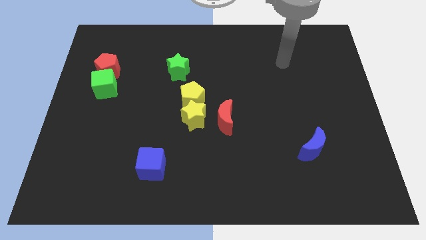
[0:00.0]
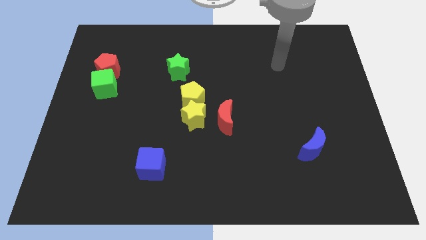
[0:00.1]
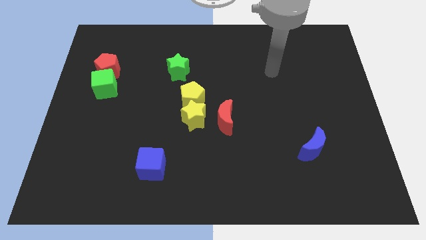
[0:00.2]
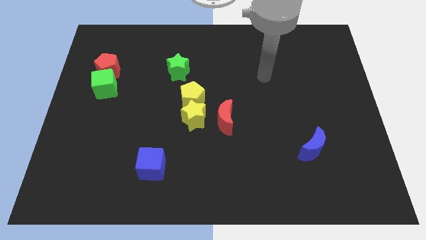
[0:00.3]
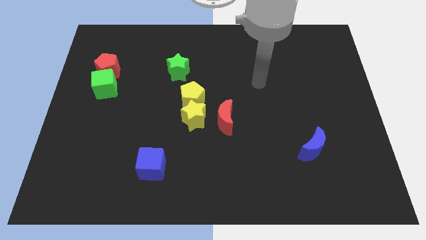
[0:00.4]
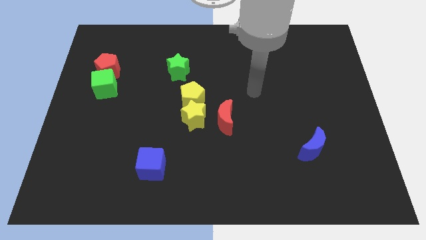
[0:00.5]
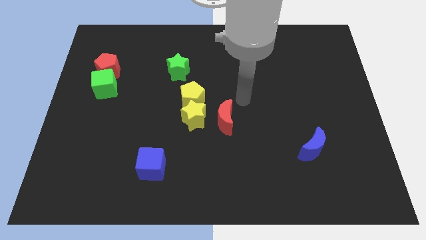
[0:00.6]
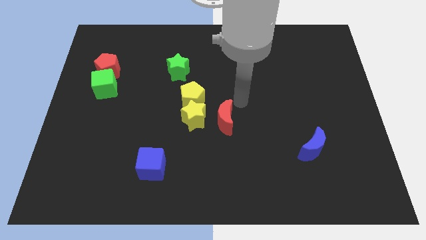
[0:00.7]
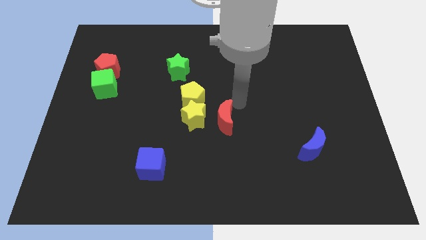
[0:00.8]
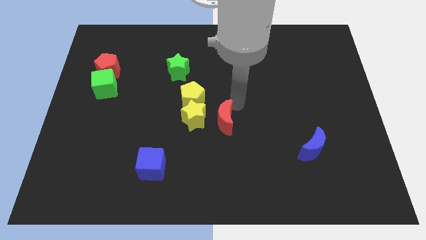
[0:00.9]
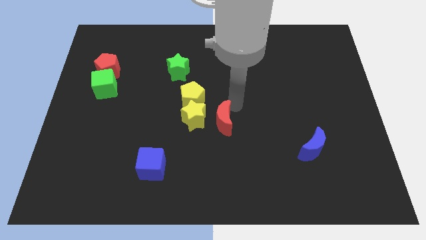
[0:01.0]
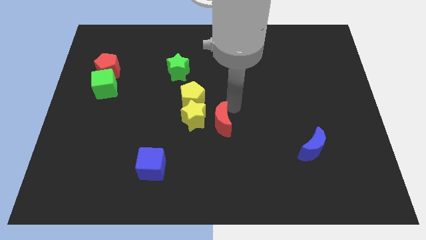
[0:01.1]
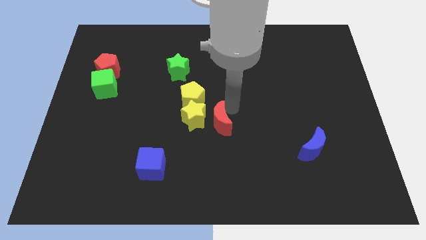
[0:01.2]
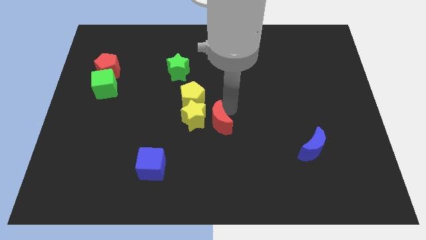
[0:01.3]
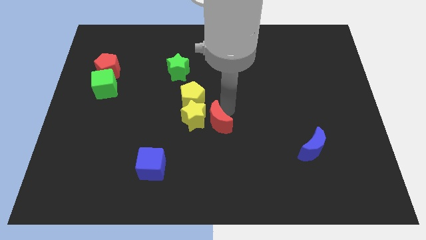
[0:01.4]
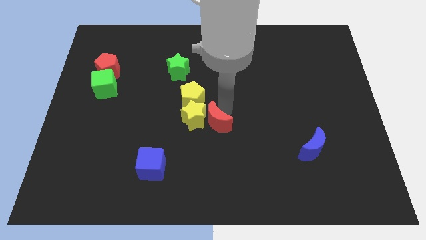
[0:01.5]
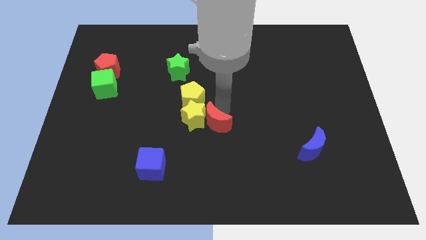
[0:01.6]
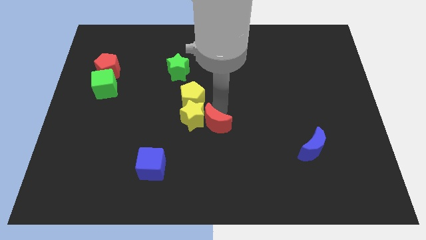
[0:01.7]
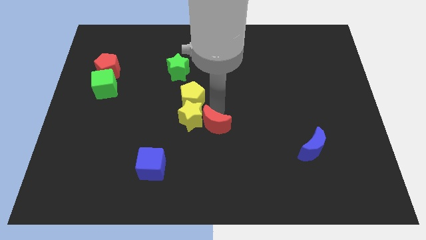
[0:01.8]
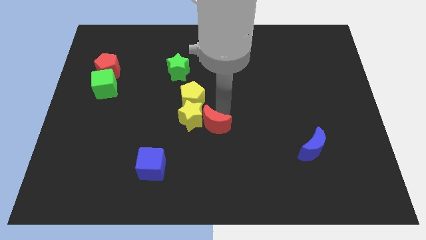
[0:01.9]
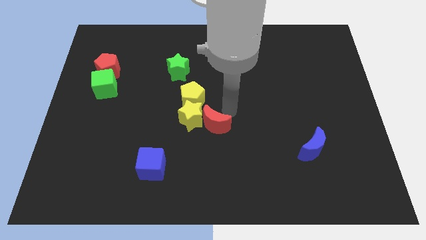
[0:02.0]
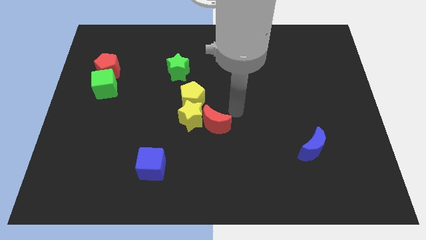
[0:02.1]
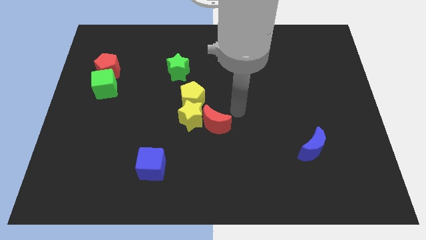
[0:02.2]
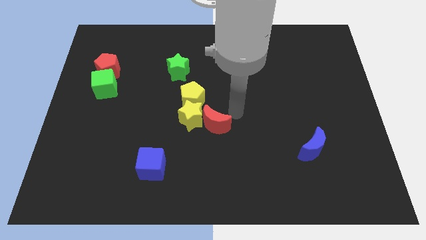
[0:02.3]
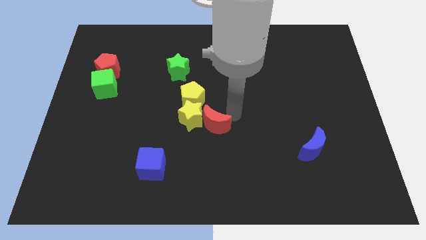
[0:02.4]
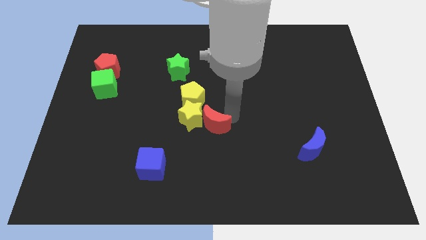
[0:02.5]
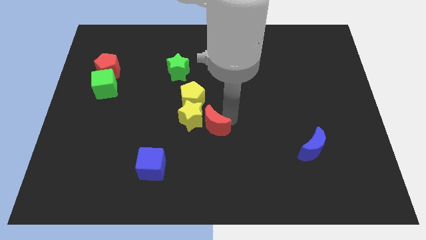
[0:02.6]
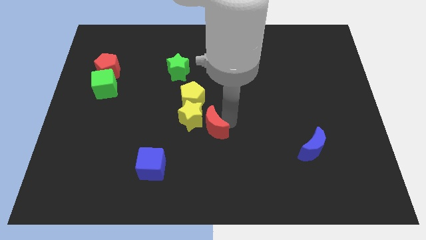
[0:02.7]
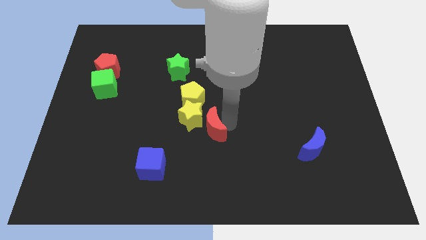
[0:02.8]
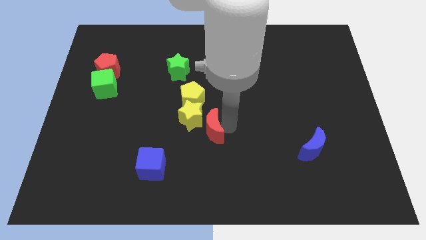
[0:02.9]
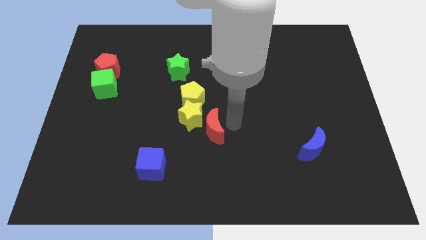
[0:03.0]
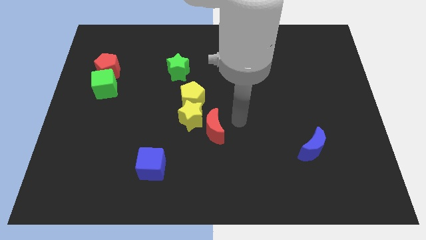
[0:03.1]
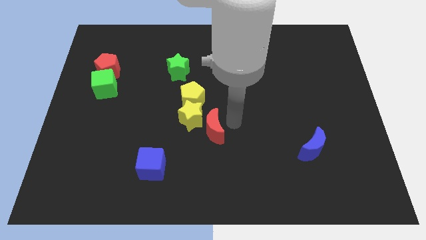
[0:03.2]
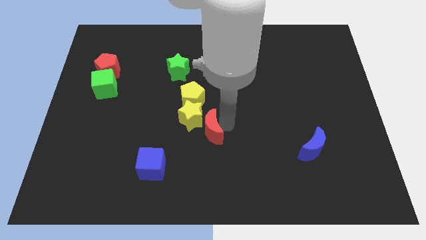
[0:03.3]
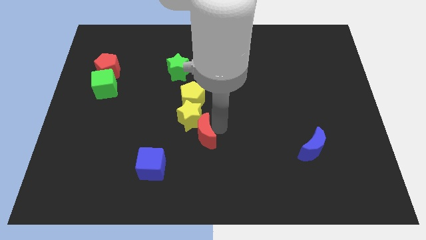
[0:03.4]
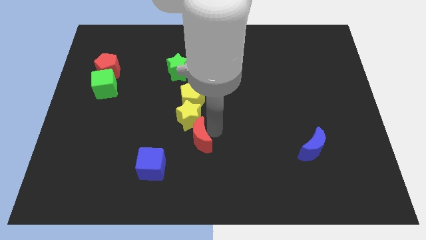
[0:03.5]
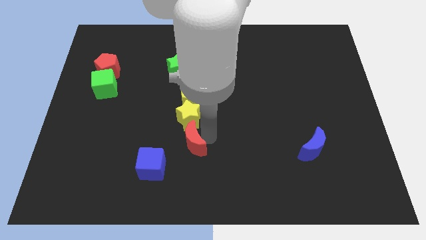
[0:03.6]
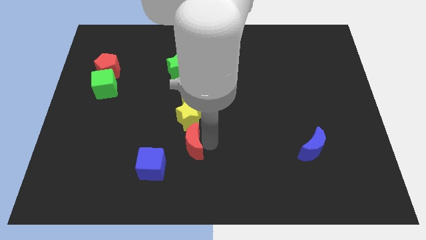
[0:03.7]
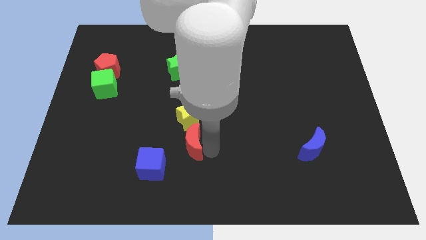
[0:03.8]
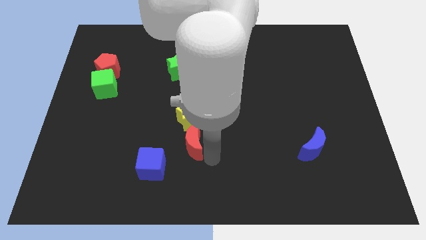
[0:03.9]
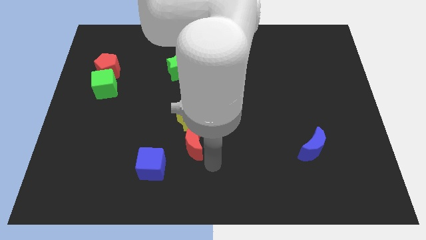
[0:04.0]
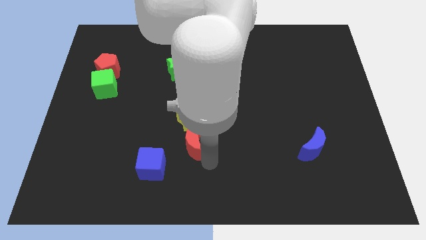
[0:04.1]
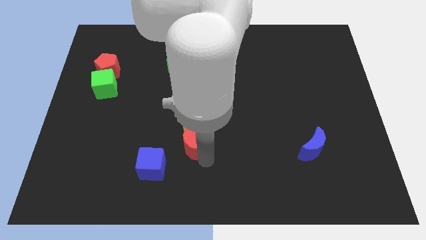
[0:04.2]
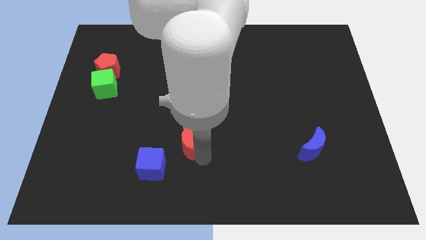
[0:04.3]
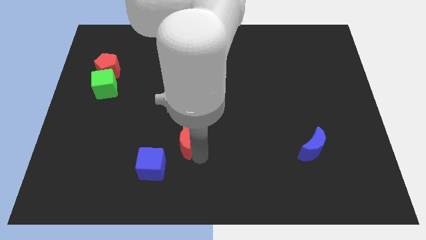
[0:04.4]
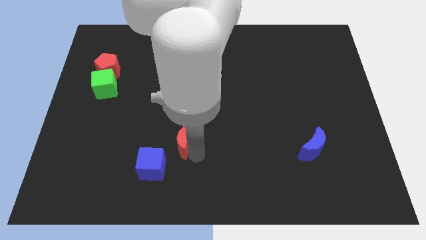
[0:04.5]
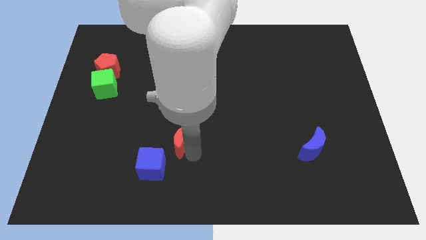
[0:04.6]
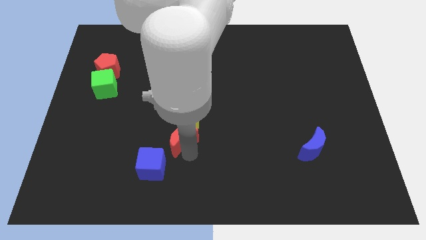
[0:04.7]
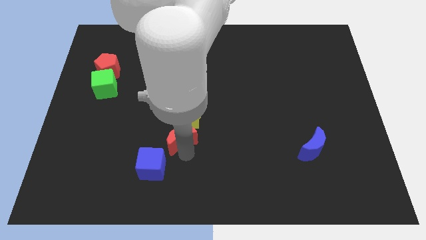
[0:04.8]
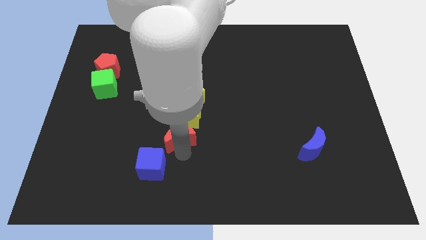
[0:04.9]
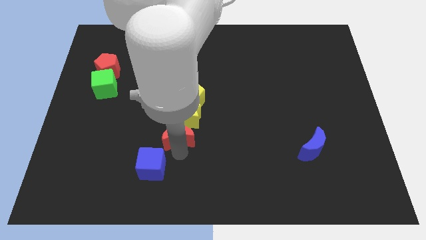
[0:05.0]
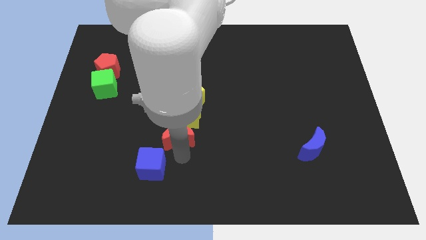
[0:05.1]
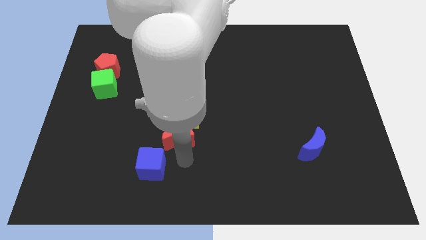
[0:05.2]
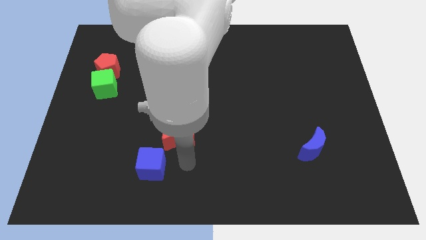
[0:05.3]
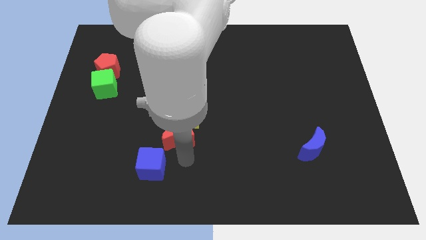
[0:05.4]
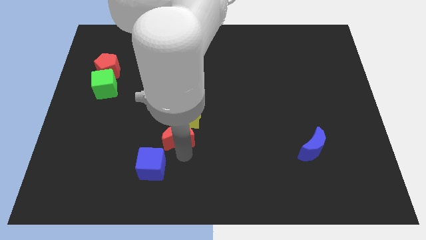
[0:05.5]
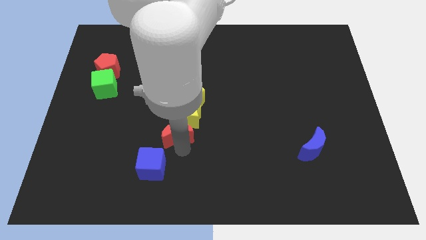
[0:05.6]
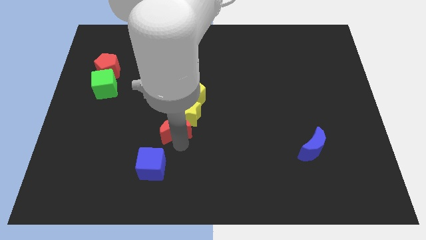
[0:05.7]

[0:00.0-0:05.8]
move the red moon to the left side of the yellow star

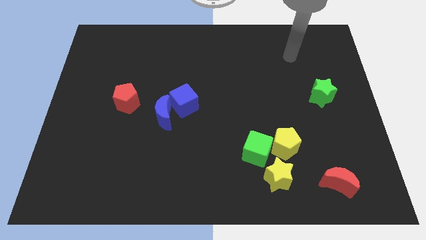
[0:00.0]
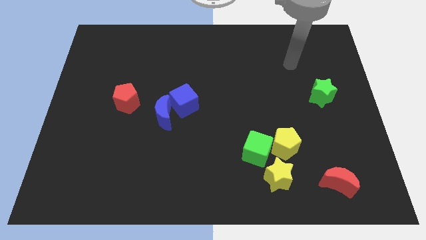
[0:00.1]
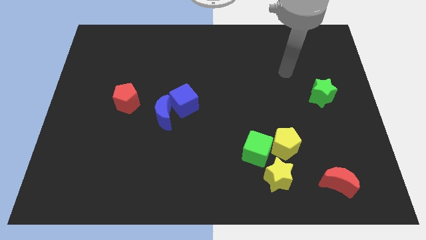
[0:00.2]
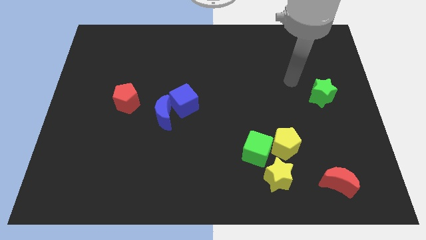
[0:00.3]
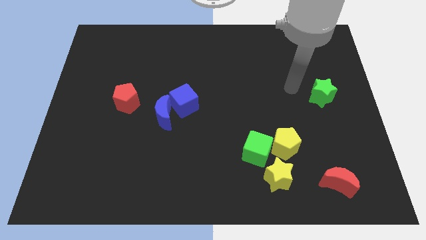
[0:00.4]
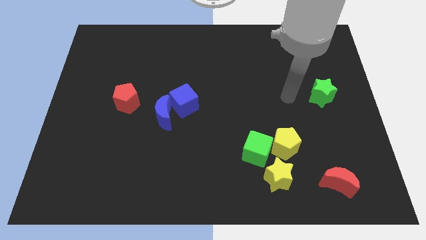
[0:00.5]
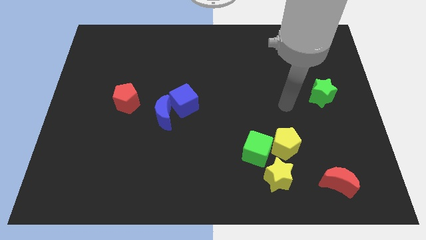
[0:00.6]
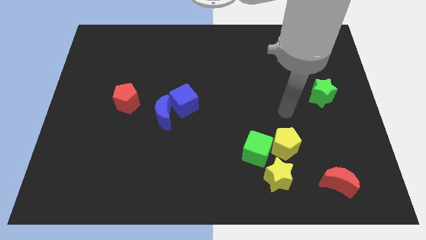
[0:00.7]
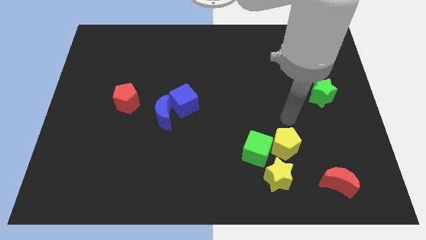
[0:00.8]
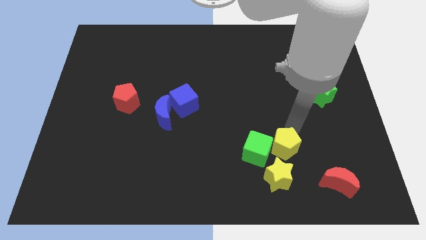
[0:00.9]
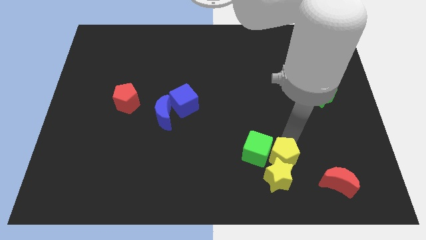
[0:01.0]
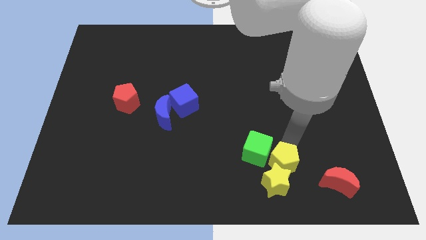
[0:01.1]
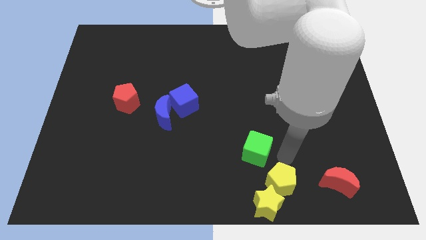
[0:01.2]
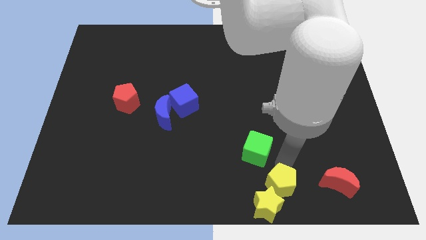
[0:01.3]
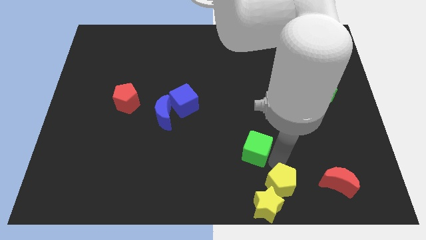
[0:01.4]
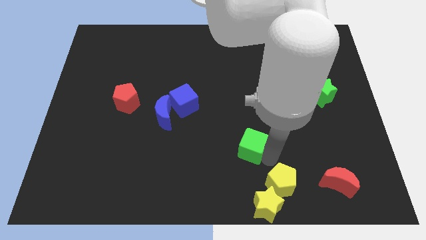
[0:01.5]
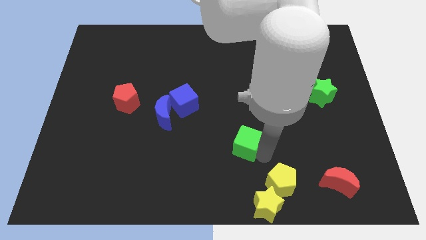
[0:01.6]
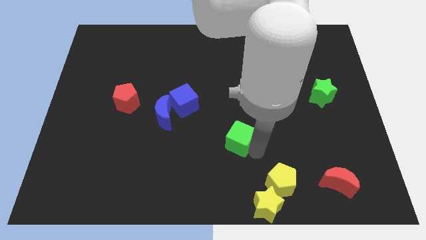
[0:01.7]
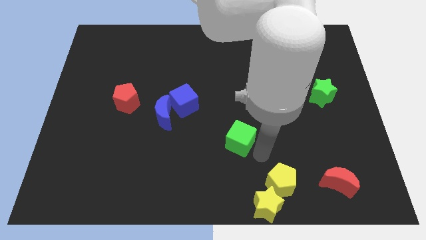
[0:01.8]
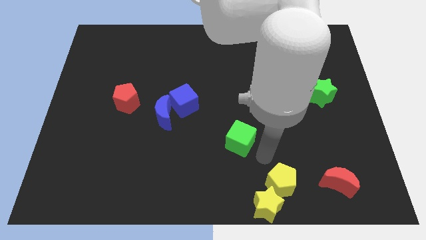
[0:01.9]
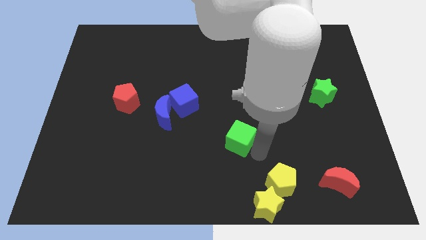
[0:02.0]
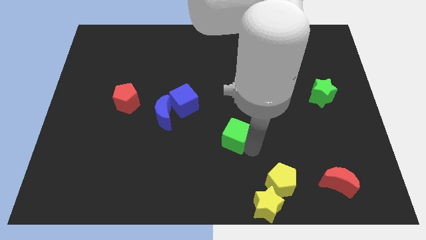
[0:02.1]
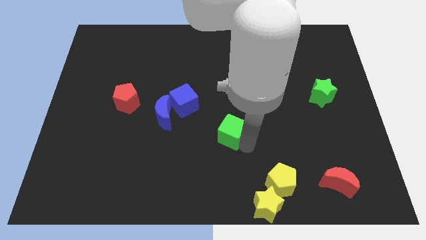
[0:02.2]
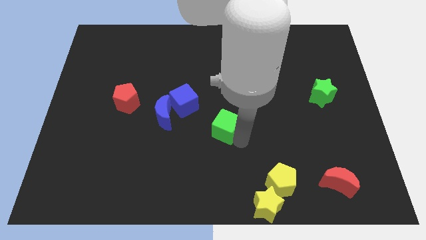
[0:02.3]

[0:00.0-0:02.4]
slide the green cube to the bottom right of the blue cube
